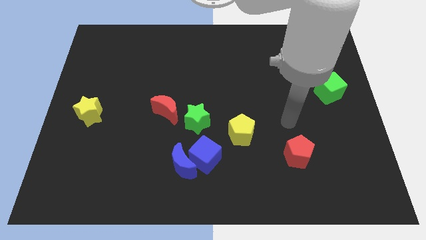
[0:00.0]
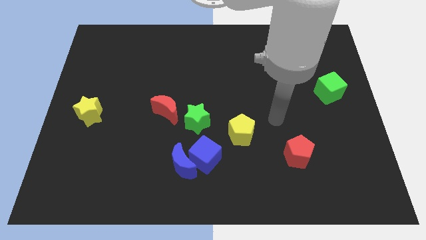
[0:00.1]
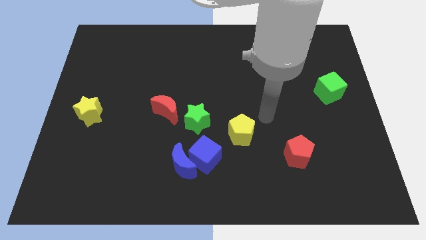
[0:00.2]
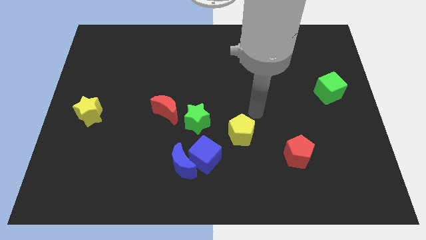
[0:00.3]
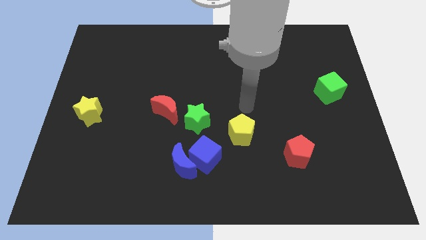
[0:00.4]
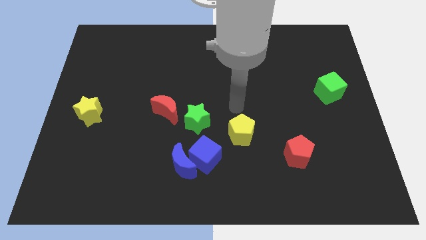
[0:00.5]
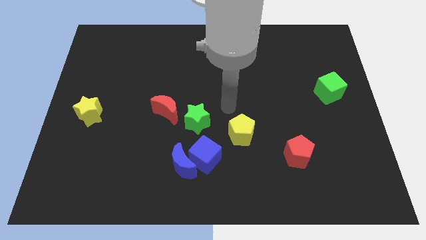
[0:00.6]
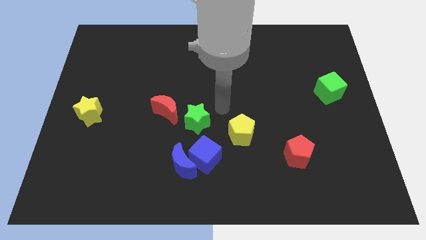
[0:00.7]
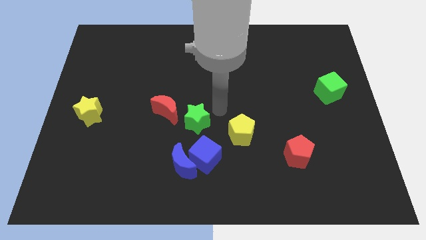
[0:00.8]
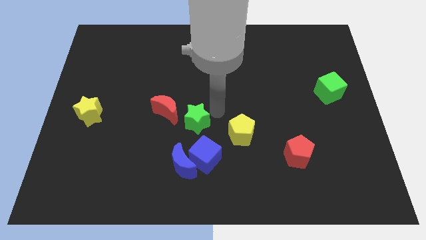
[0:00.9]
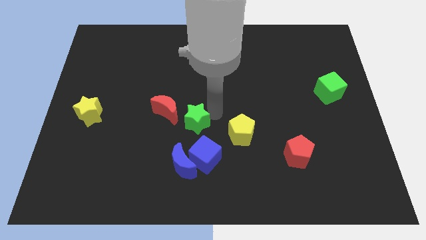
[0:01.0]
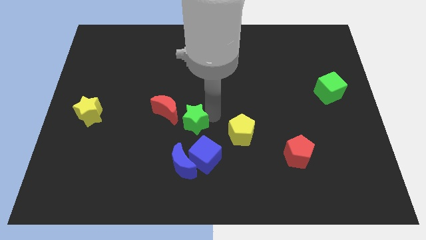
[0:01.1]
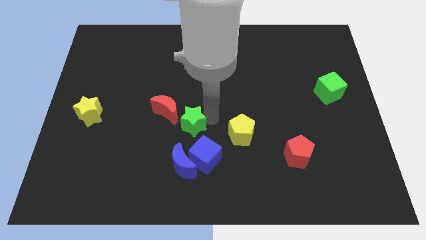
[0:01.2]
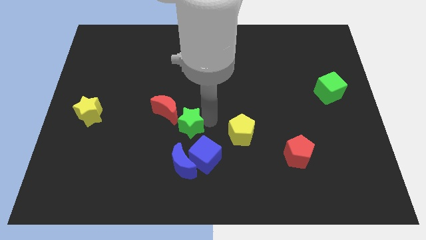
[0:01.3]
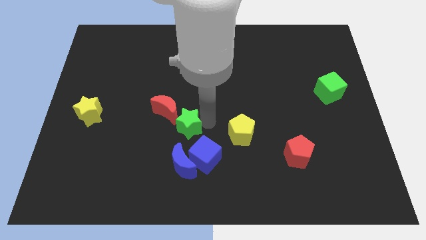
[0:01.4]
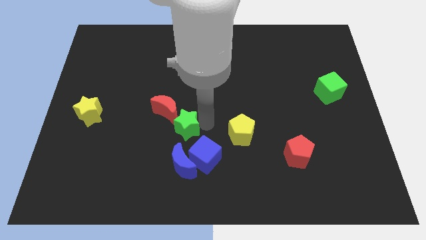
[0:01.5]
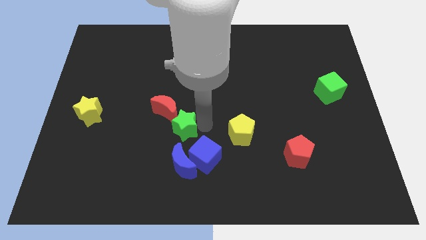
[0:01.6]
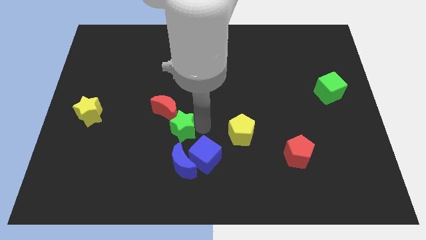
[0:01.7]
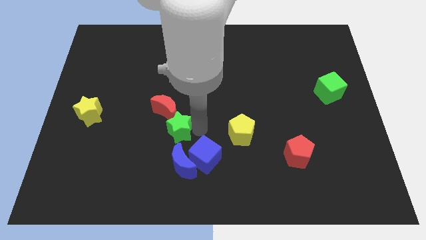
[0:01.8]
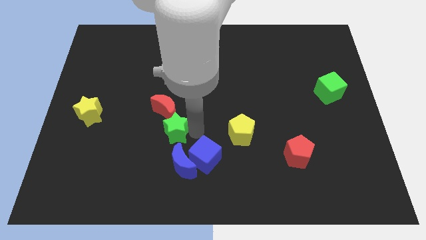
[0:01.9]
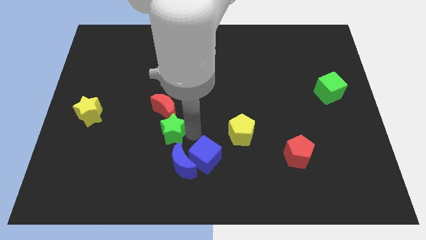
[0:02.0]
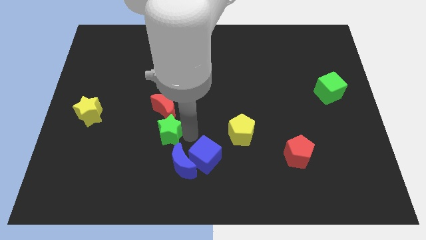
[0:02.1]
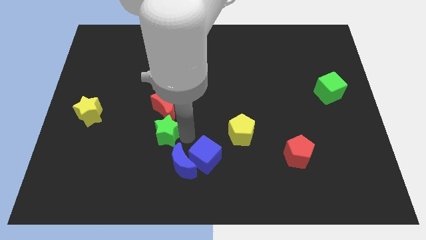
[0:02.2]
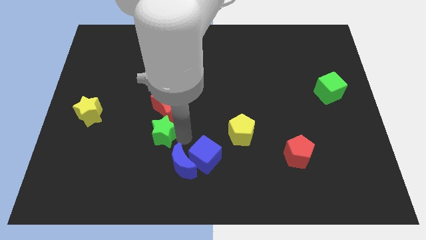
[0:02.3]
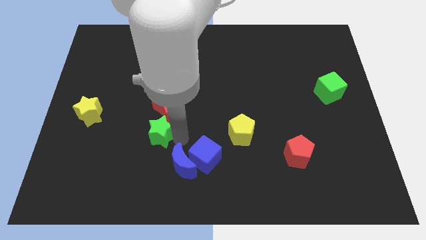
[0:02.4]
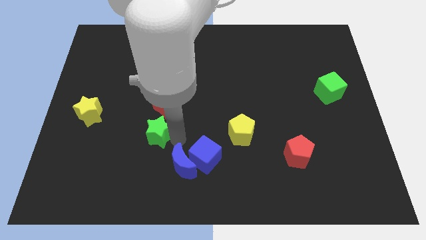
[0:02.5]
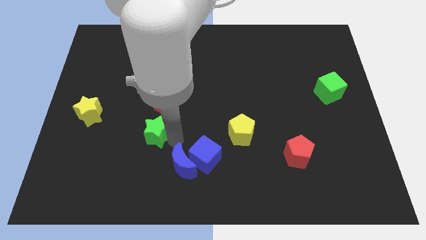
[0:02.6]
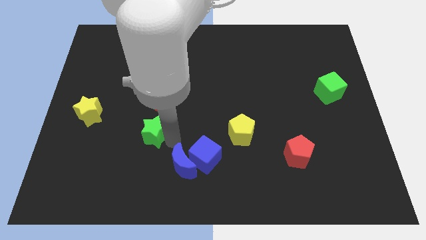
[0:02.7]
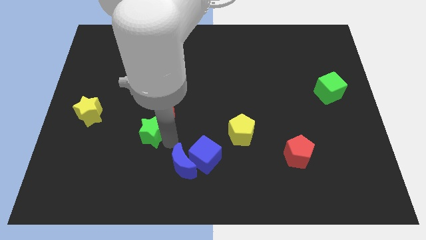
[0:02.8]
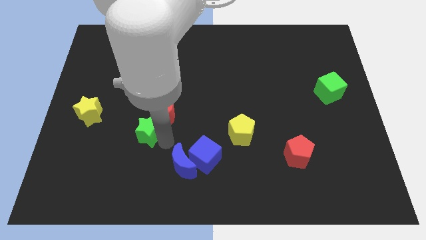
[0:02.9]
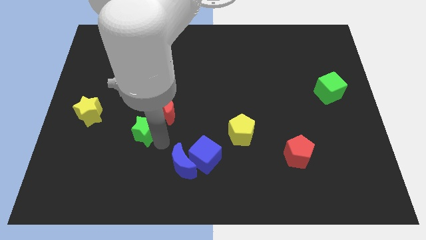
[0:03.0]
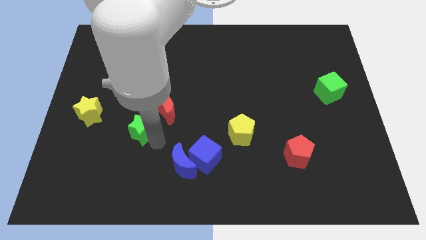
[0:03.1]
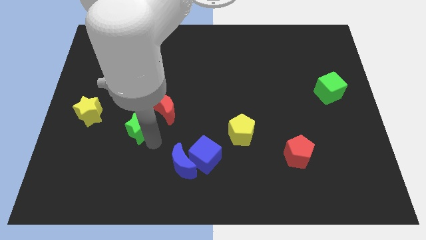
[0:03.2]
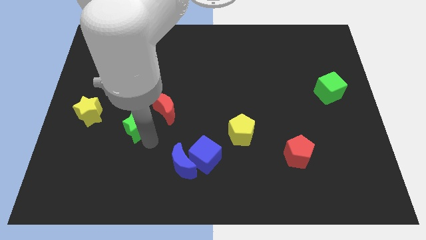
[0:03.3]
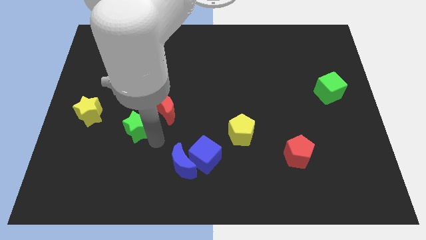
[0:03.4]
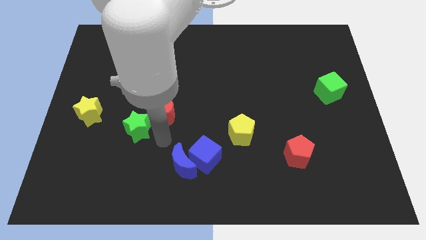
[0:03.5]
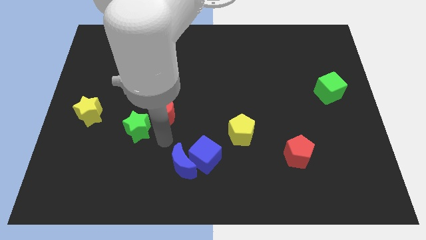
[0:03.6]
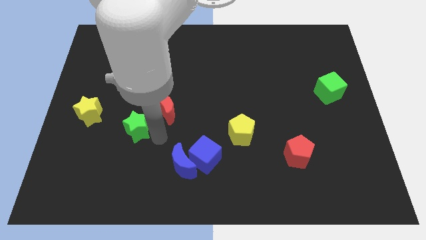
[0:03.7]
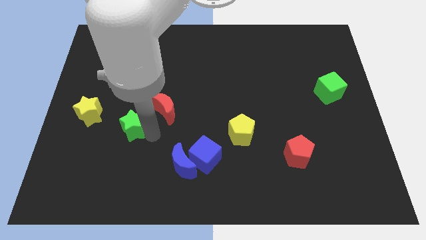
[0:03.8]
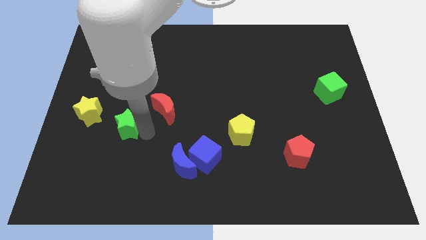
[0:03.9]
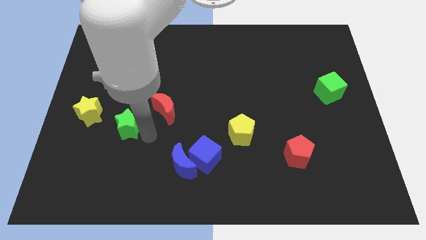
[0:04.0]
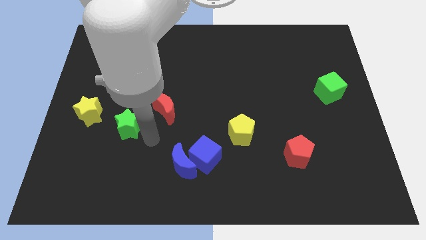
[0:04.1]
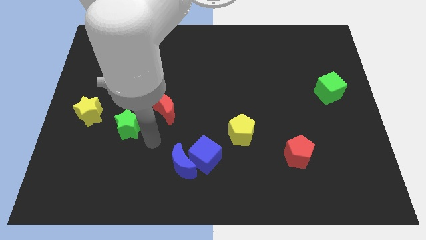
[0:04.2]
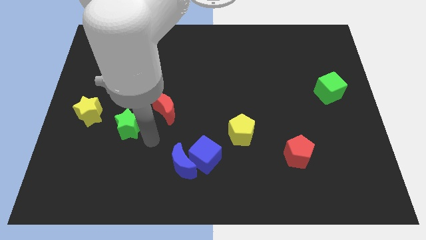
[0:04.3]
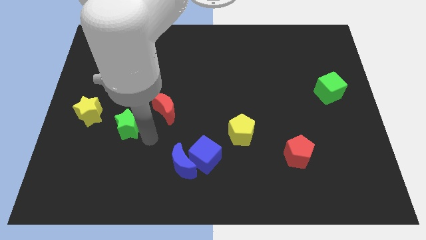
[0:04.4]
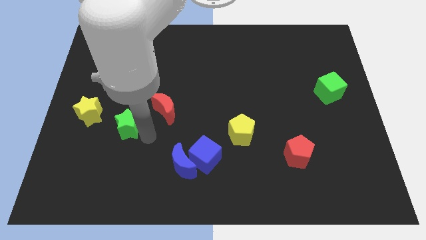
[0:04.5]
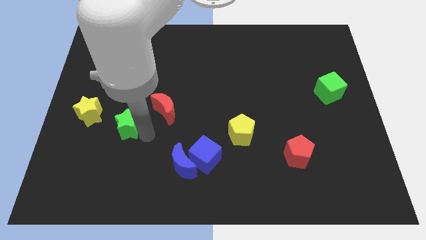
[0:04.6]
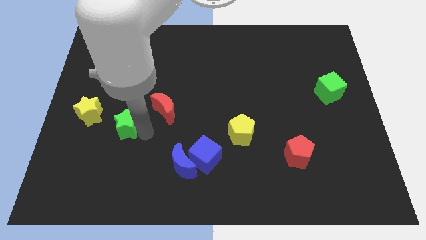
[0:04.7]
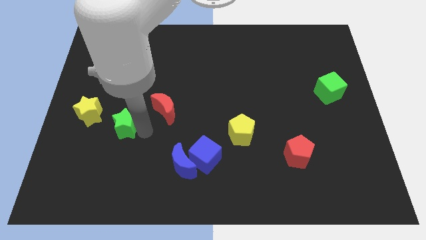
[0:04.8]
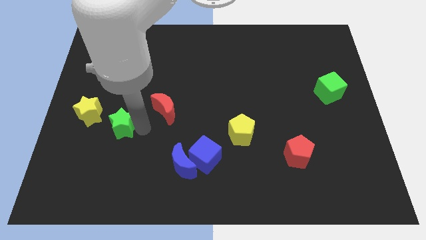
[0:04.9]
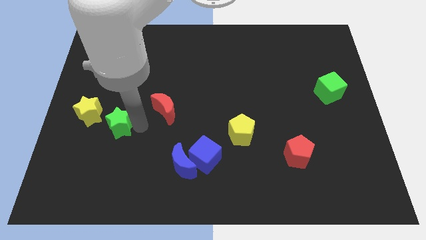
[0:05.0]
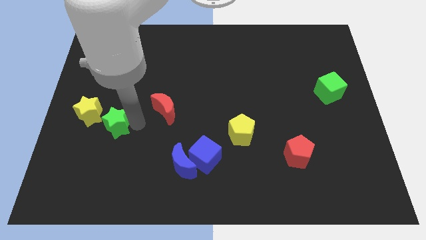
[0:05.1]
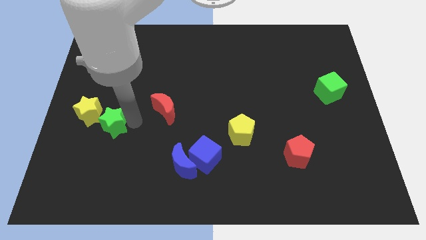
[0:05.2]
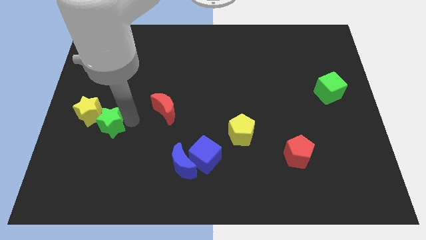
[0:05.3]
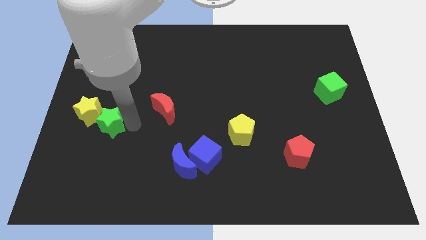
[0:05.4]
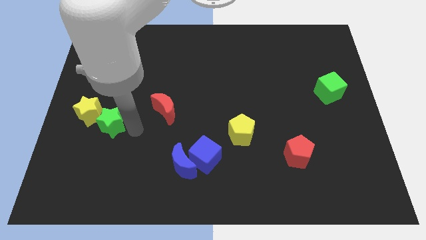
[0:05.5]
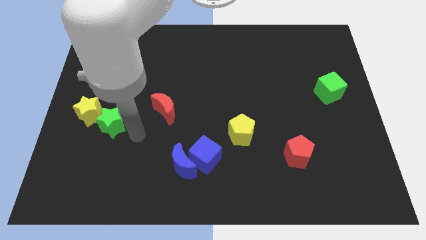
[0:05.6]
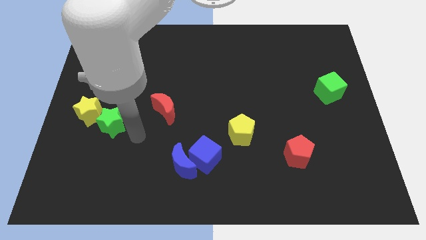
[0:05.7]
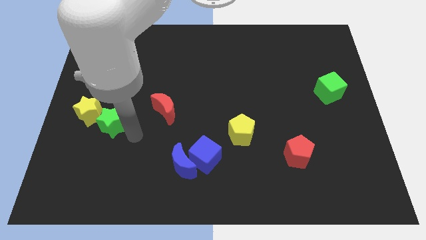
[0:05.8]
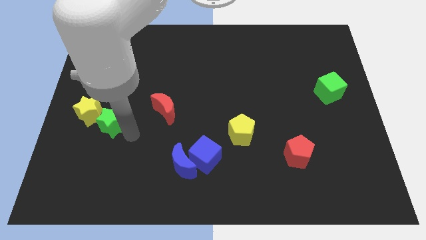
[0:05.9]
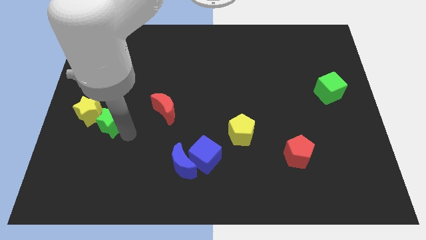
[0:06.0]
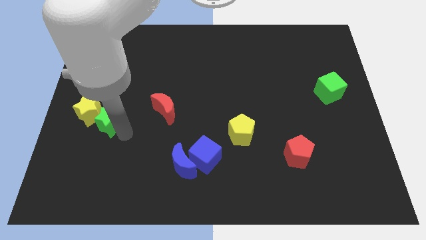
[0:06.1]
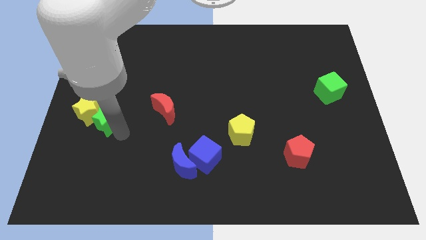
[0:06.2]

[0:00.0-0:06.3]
slide the green star next to the yellow star

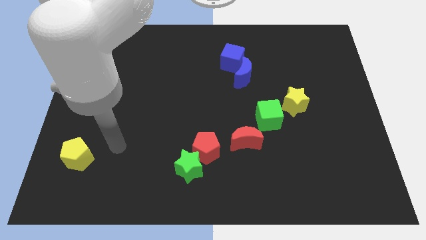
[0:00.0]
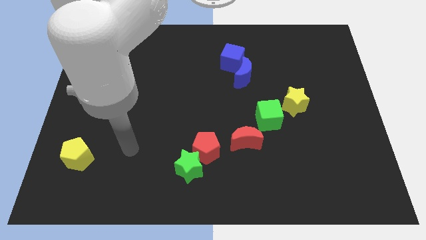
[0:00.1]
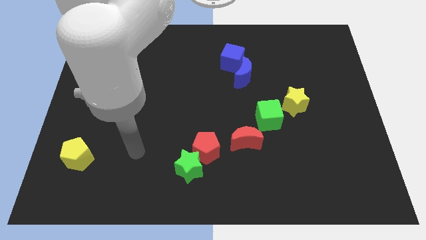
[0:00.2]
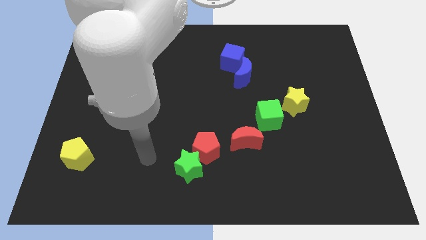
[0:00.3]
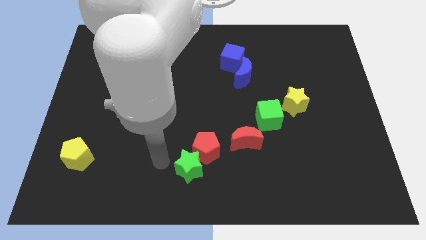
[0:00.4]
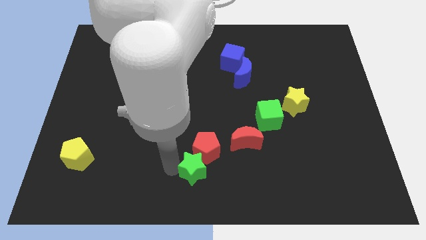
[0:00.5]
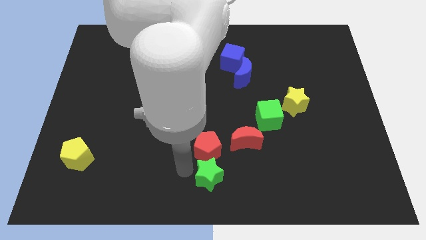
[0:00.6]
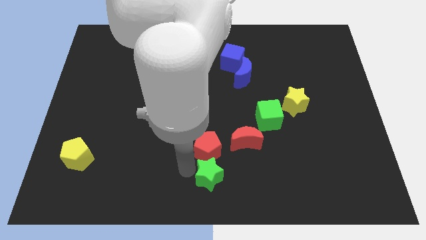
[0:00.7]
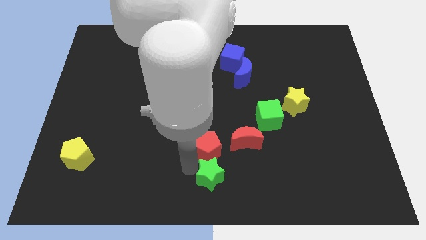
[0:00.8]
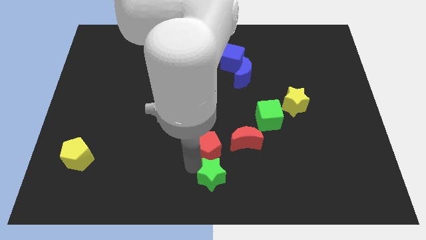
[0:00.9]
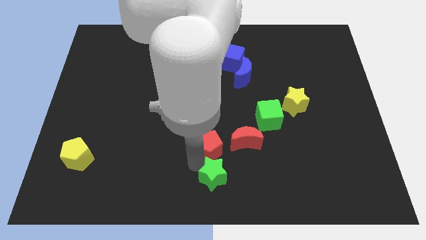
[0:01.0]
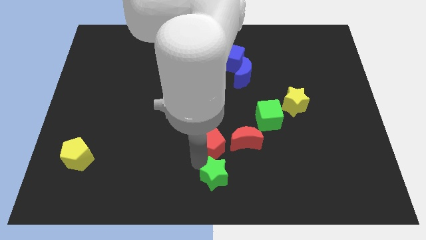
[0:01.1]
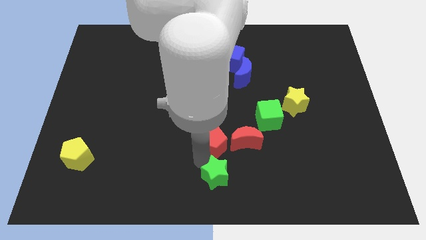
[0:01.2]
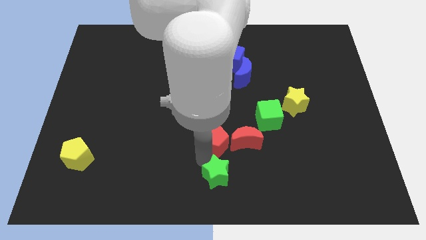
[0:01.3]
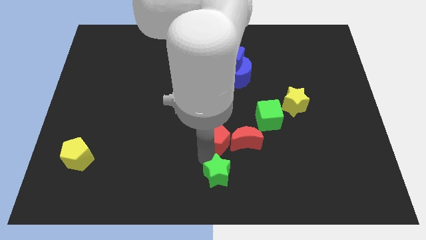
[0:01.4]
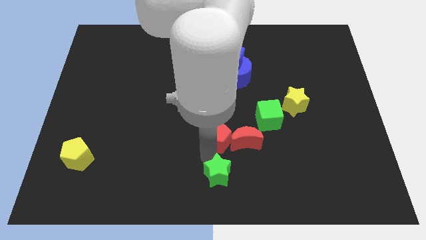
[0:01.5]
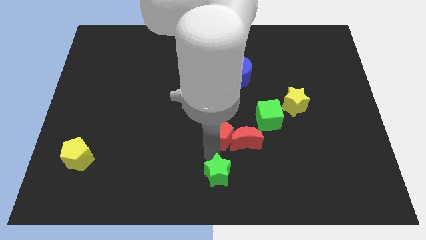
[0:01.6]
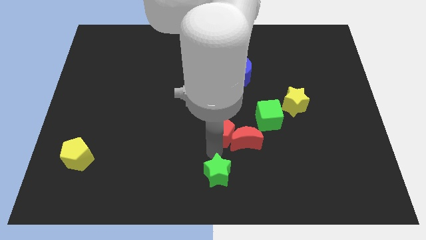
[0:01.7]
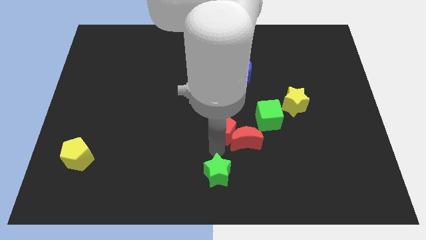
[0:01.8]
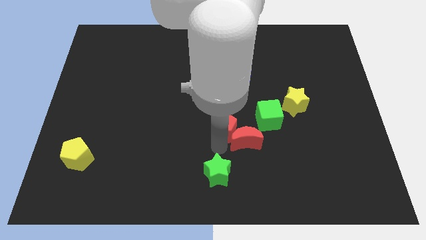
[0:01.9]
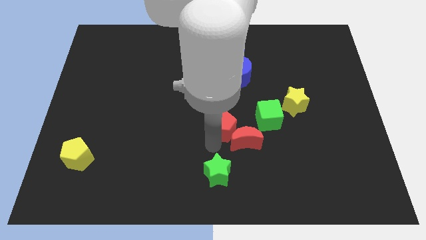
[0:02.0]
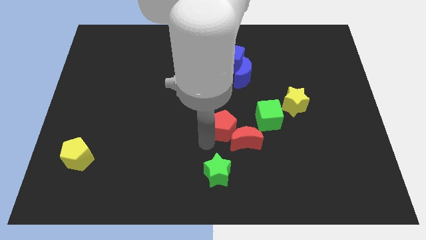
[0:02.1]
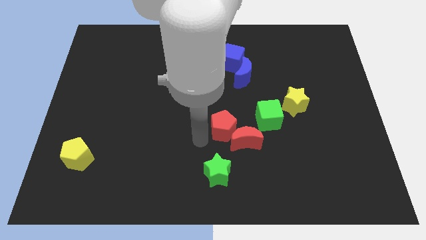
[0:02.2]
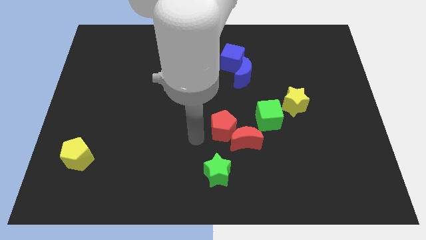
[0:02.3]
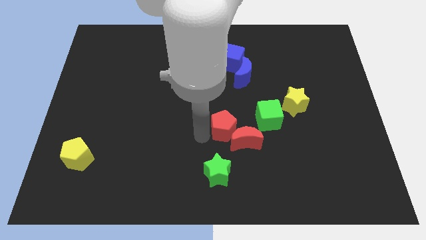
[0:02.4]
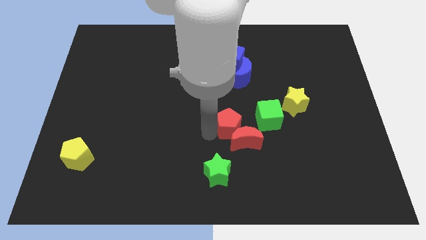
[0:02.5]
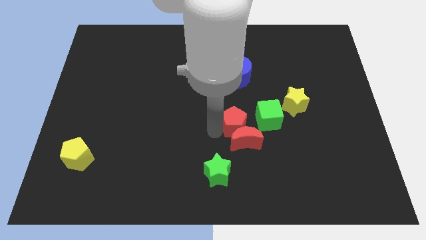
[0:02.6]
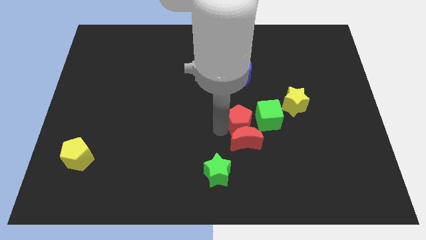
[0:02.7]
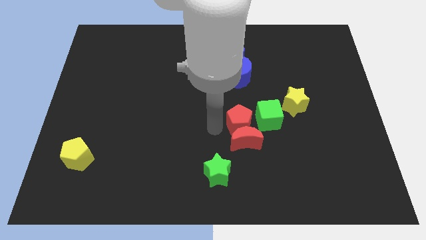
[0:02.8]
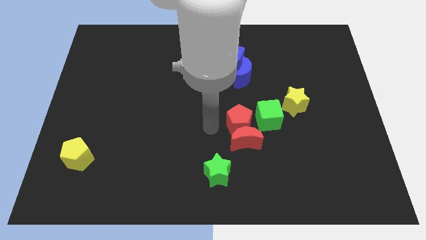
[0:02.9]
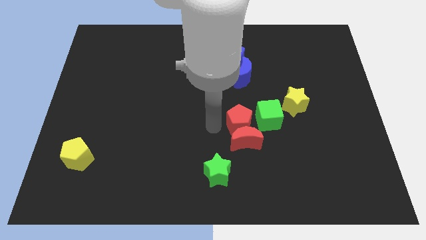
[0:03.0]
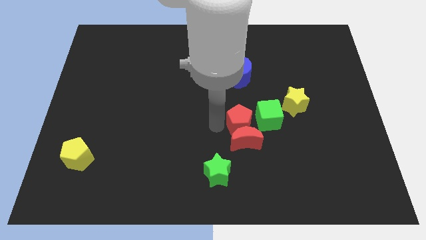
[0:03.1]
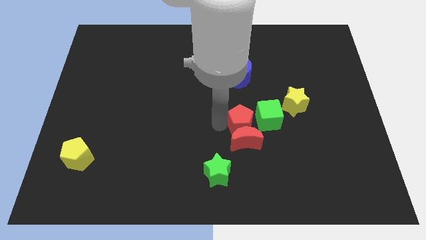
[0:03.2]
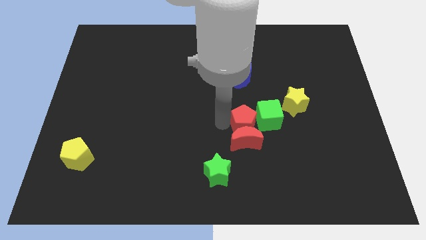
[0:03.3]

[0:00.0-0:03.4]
push the red pentagon close to the green cube
